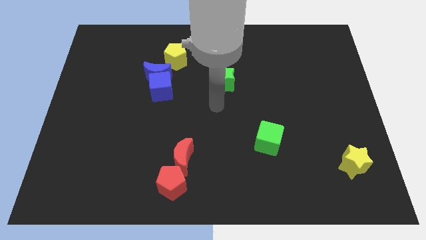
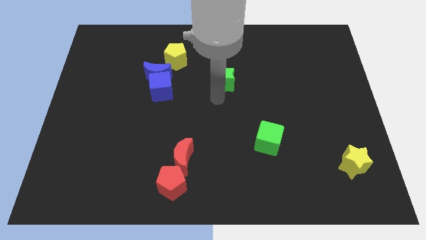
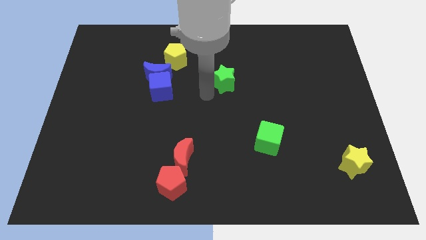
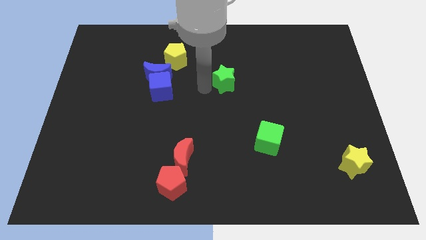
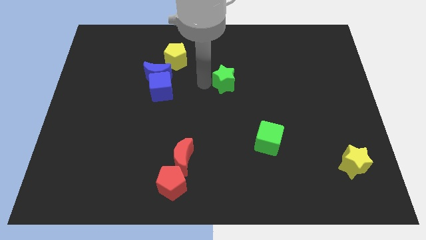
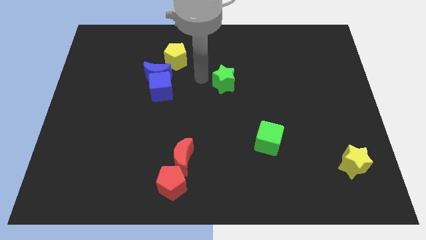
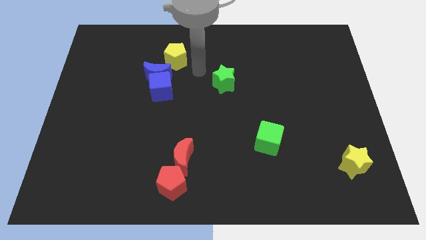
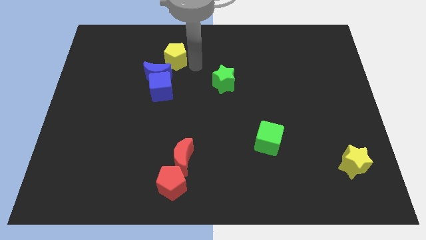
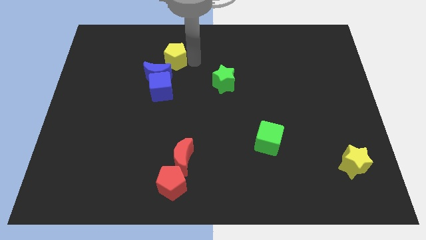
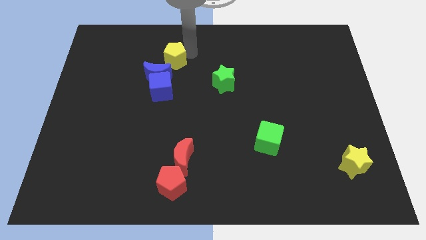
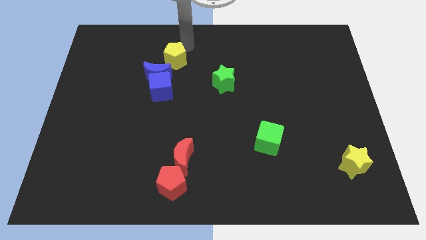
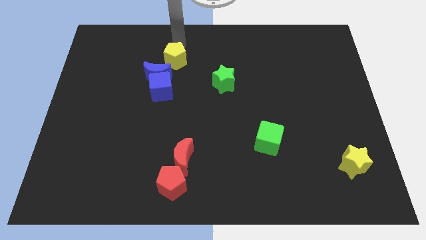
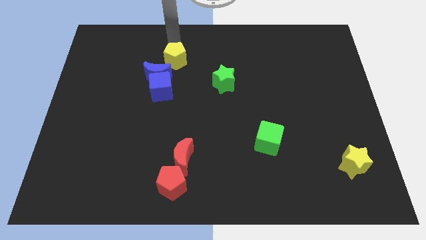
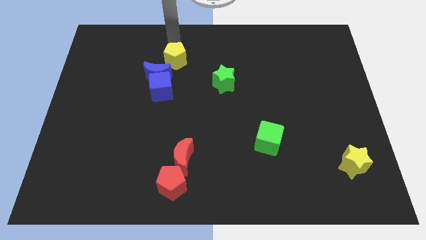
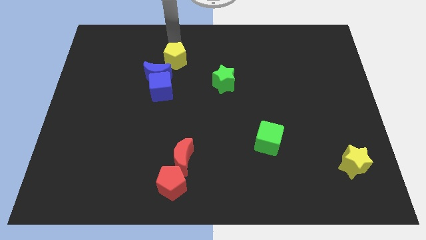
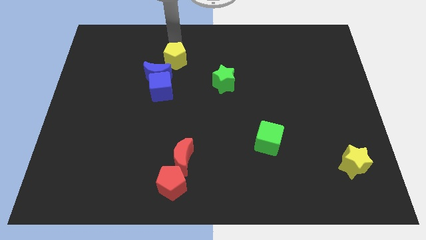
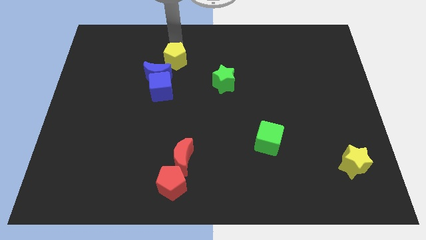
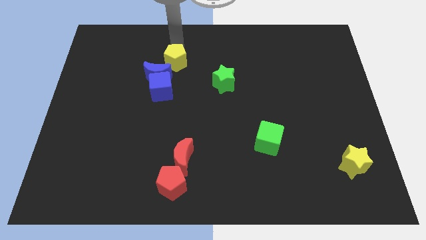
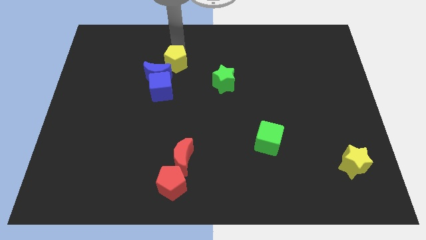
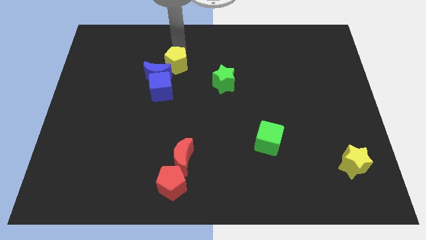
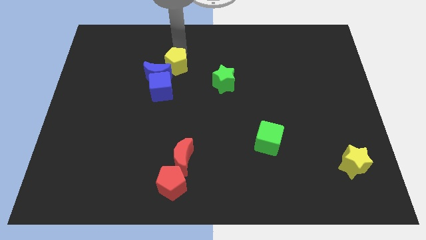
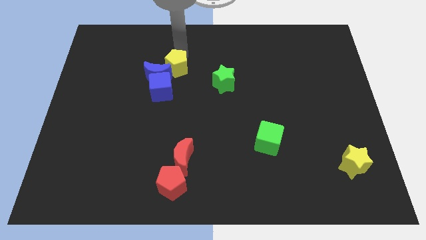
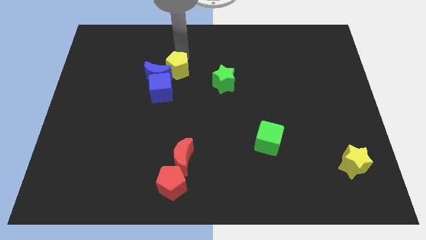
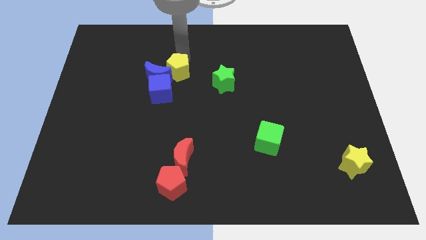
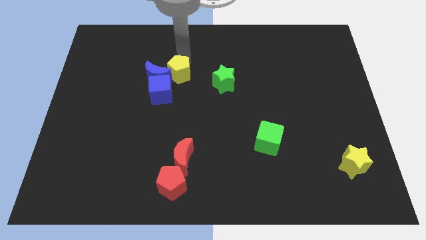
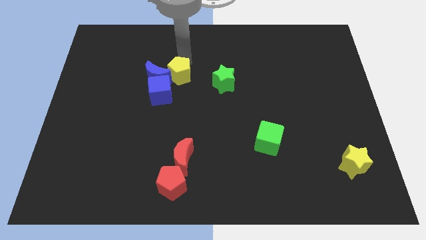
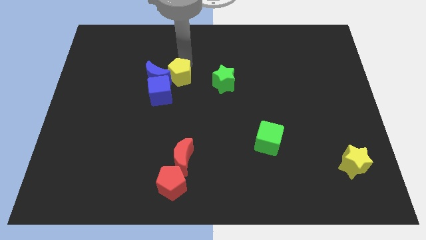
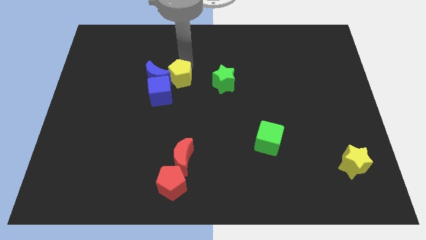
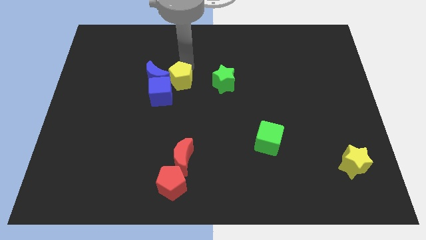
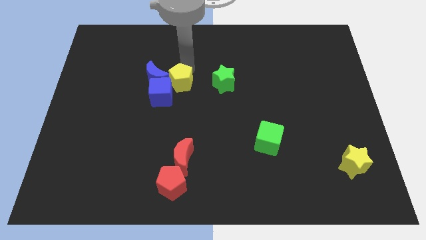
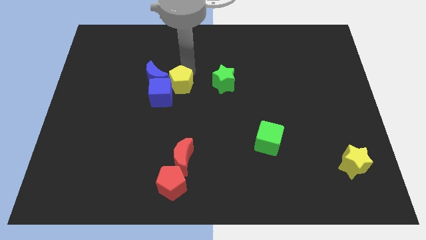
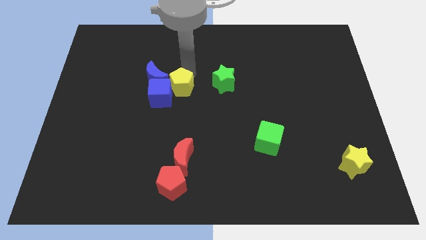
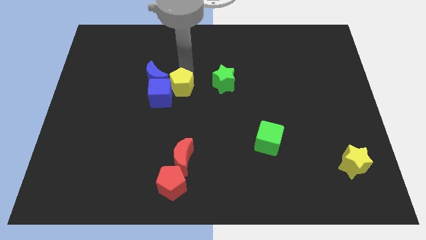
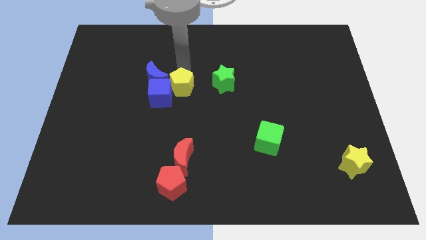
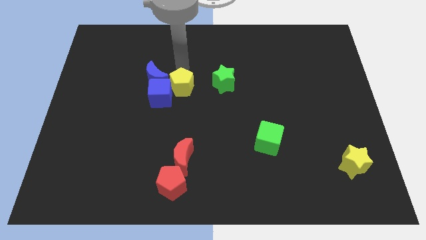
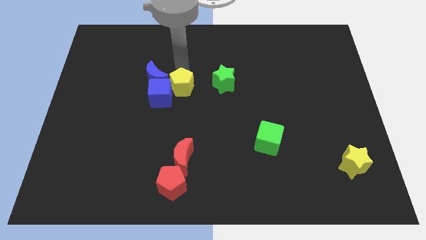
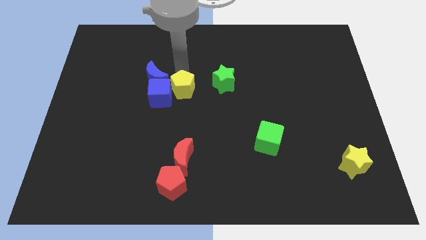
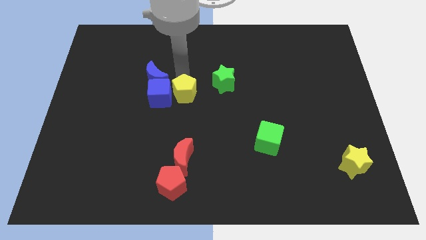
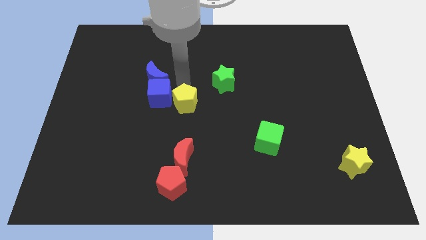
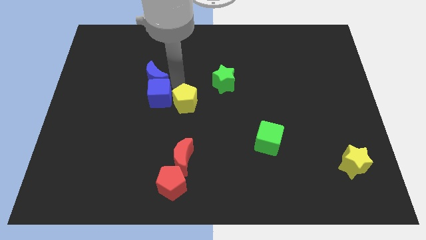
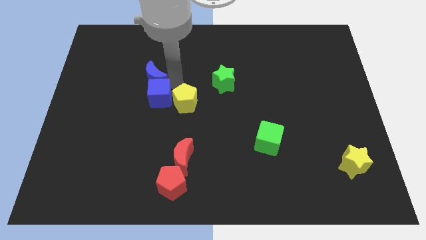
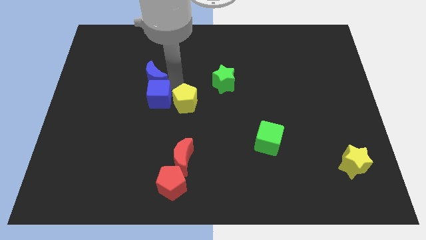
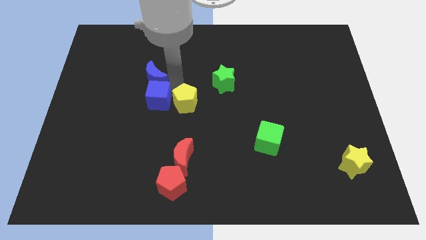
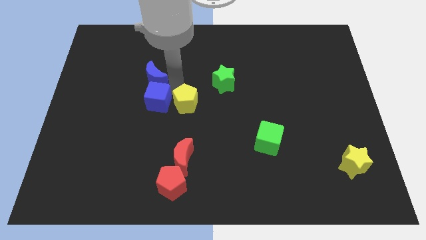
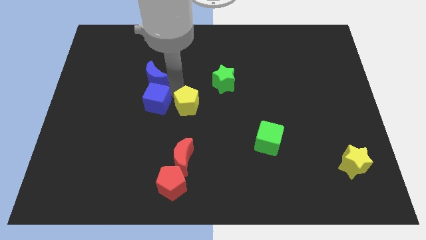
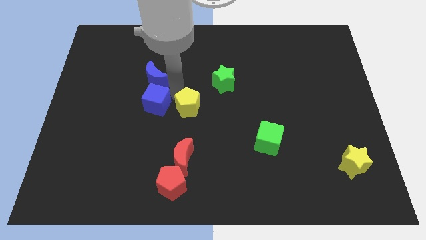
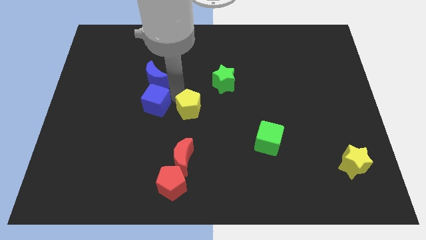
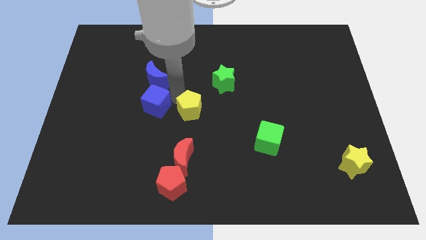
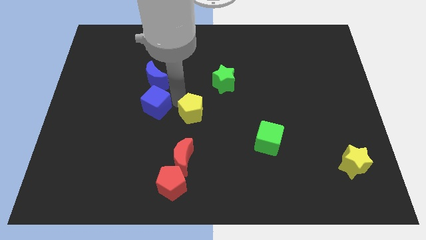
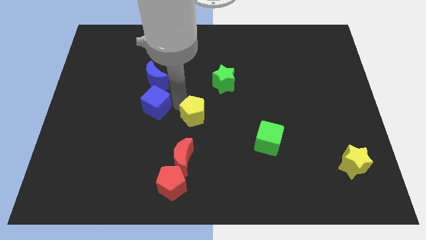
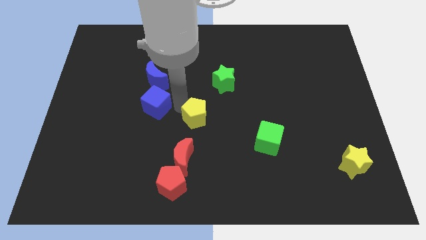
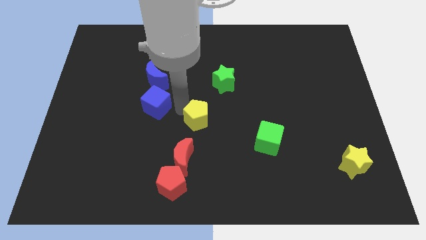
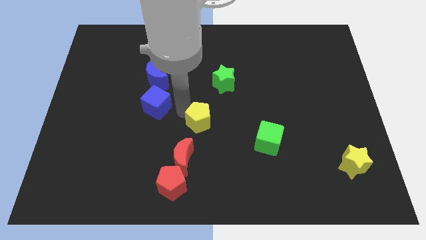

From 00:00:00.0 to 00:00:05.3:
push the yellow pentagon to the top right of the red moon

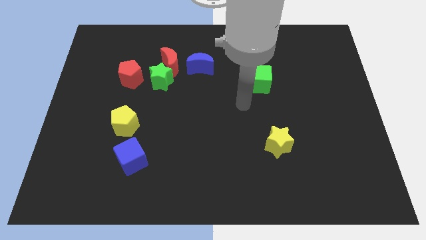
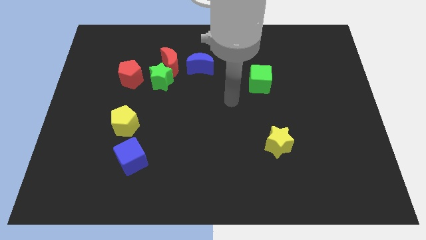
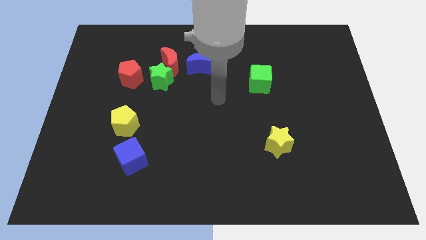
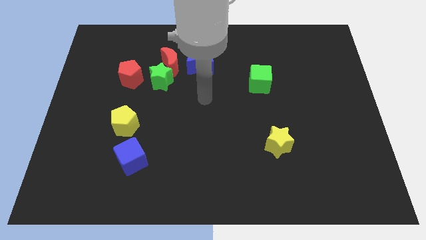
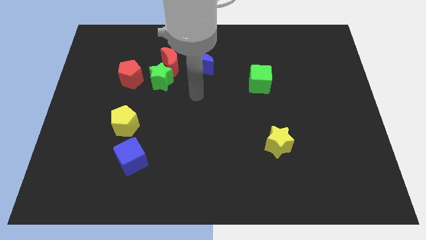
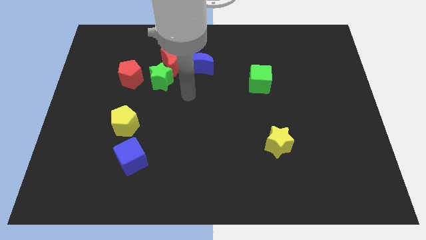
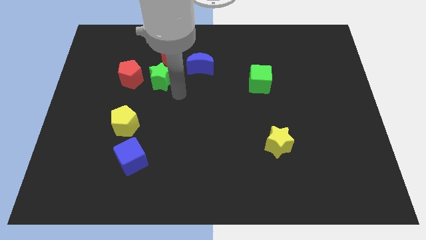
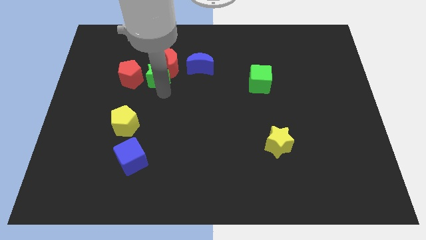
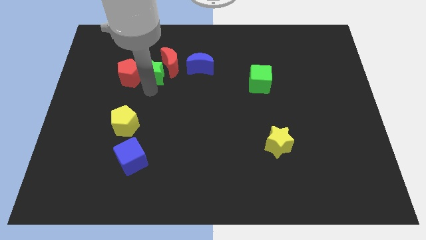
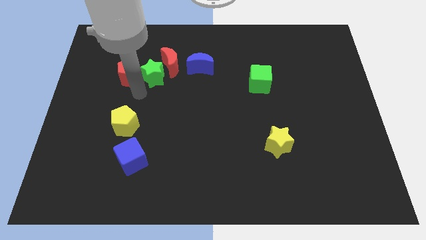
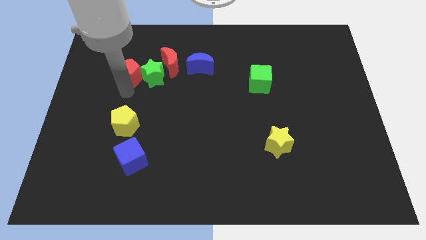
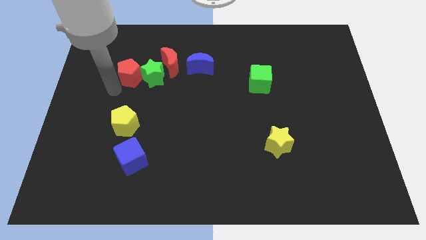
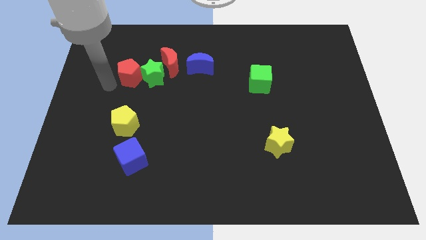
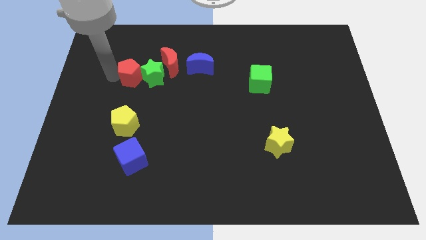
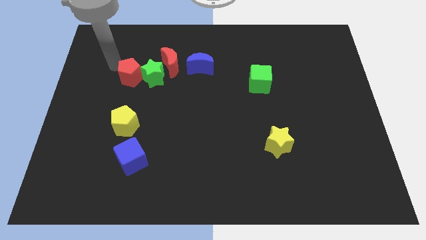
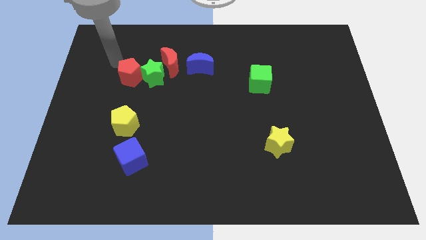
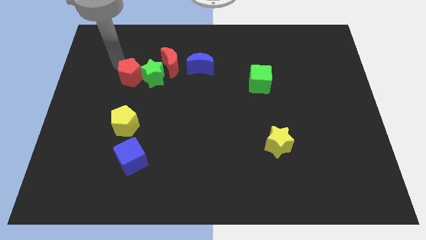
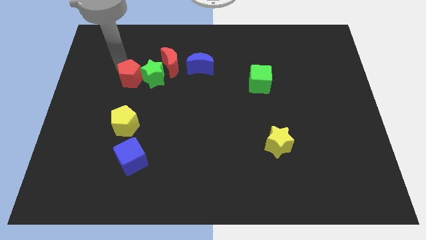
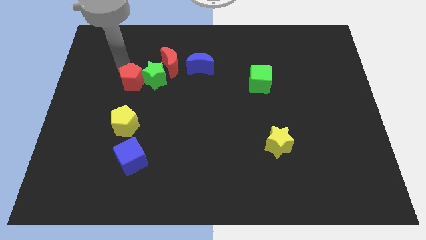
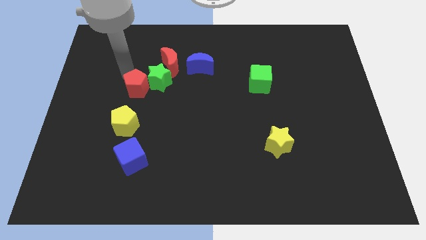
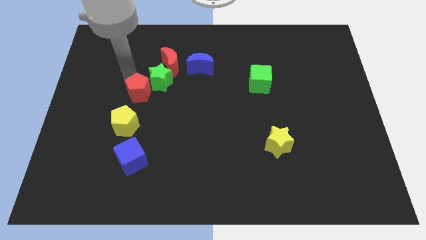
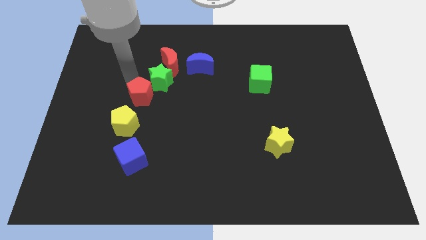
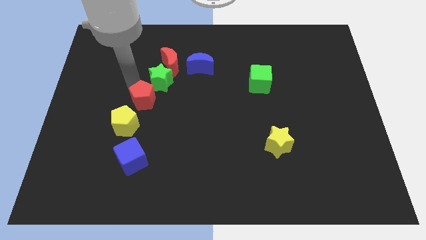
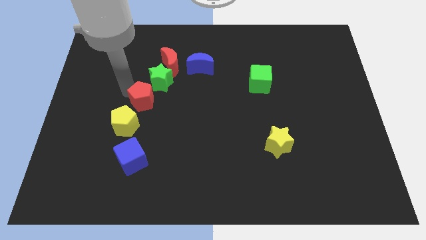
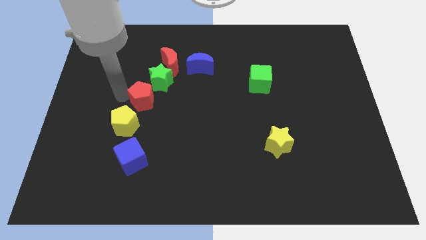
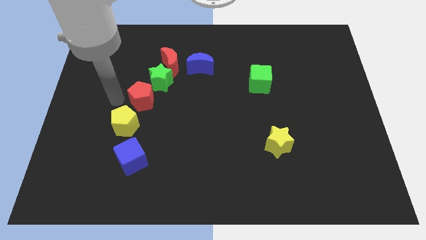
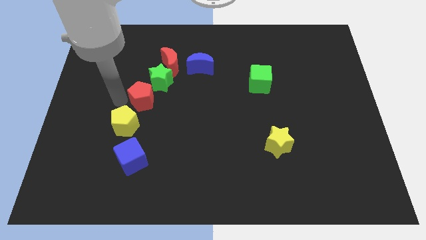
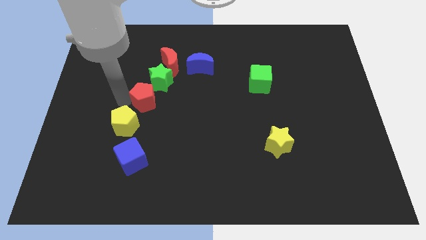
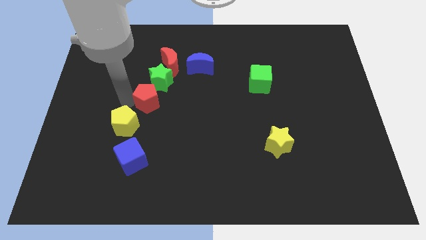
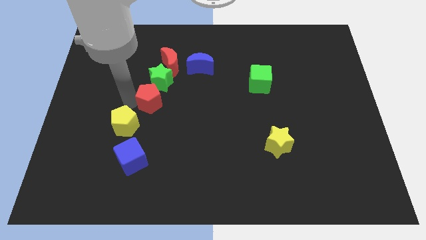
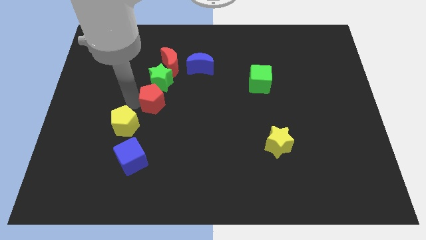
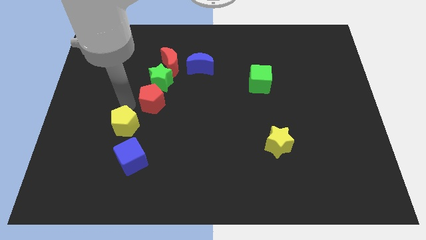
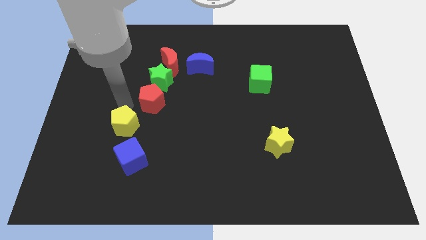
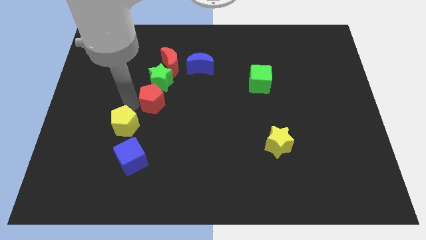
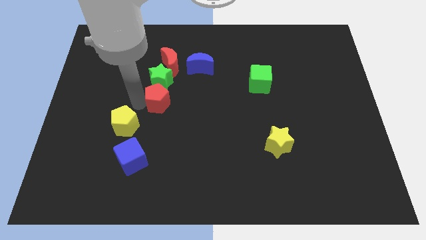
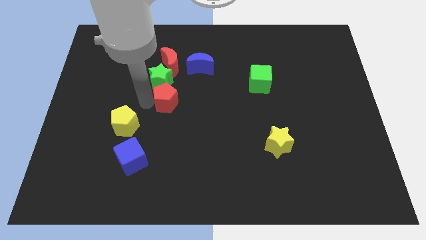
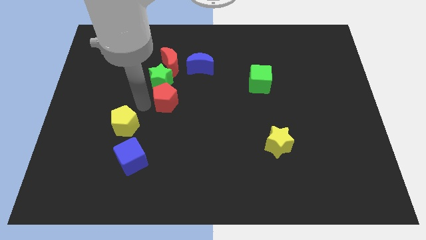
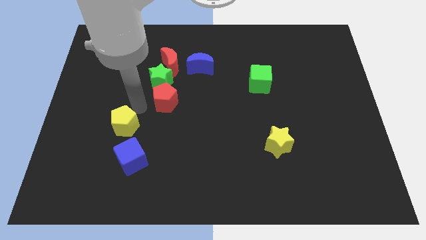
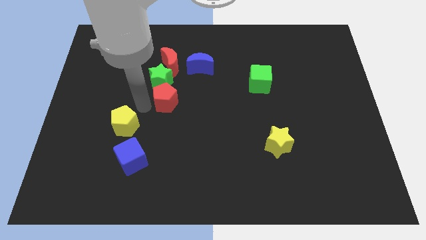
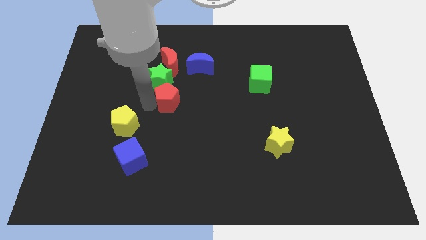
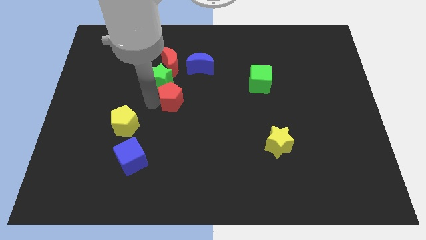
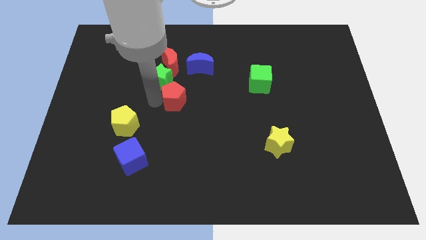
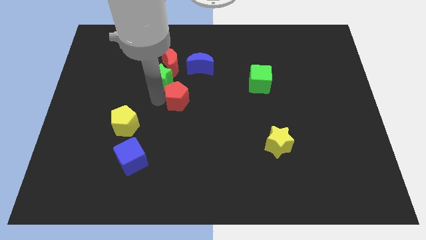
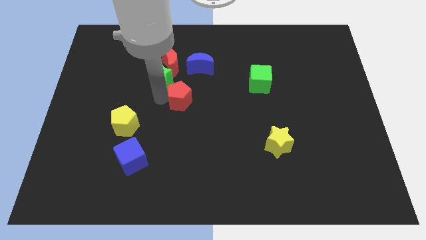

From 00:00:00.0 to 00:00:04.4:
slide the red pentagon below the blue moon
